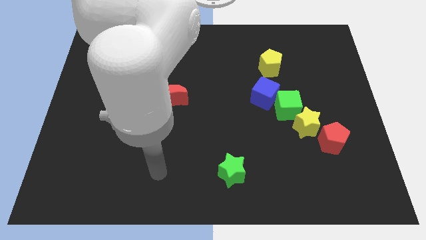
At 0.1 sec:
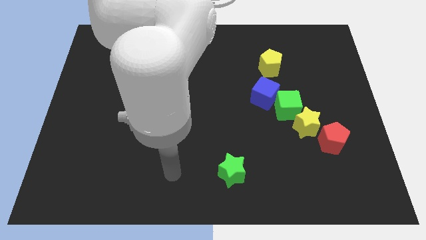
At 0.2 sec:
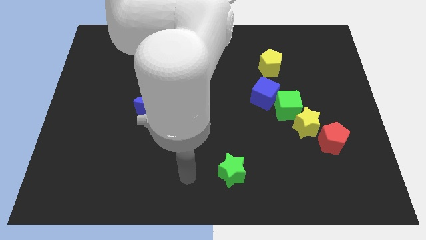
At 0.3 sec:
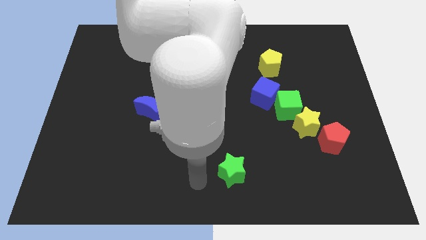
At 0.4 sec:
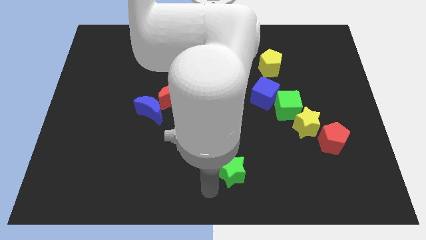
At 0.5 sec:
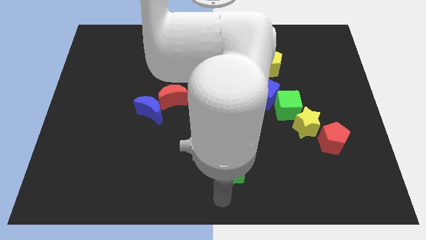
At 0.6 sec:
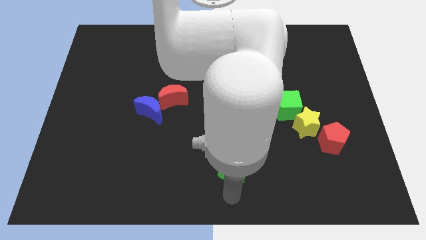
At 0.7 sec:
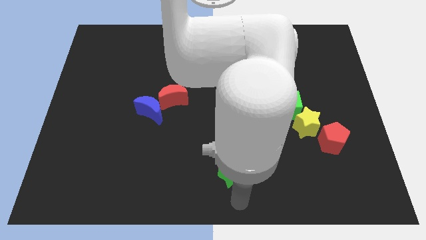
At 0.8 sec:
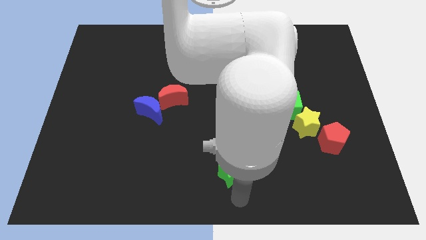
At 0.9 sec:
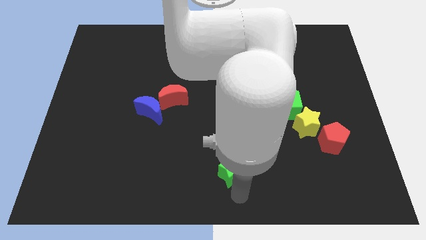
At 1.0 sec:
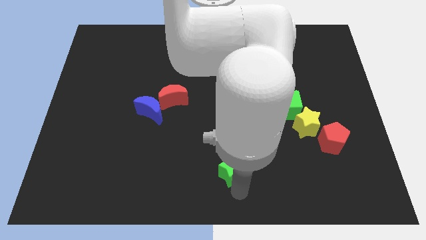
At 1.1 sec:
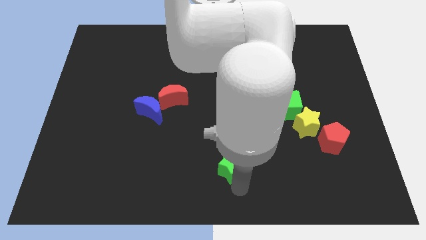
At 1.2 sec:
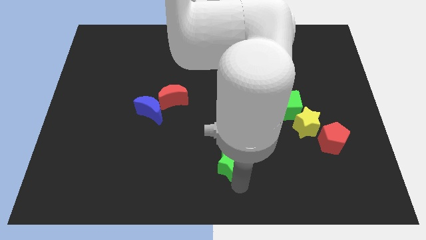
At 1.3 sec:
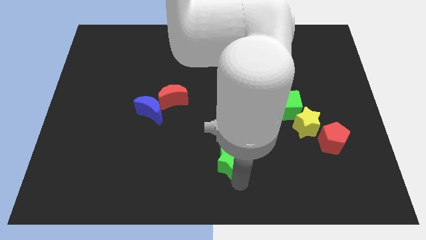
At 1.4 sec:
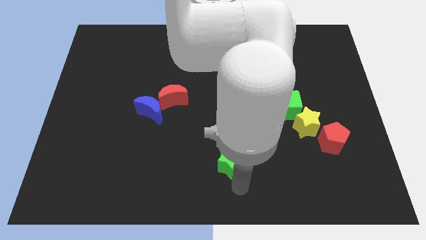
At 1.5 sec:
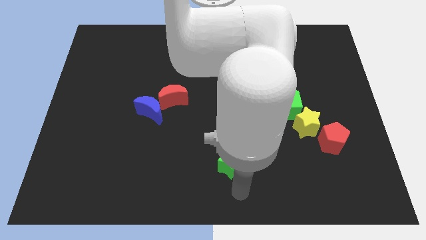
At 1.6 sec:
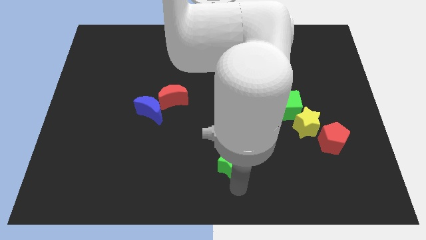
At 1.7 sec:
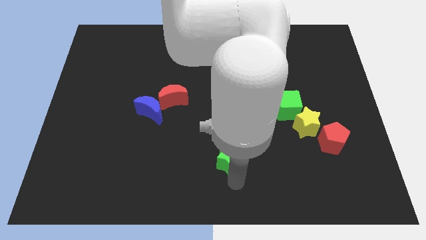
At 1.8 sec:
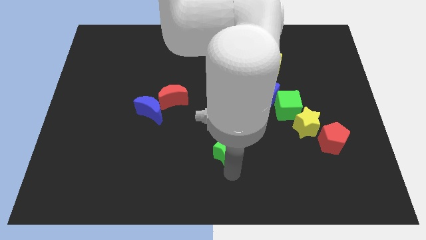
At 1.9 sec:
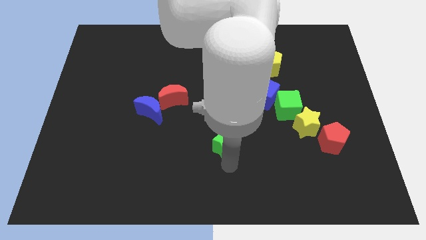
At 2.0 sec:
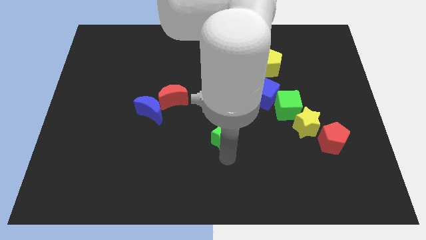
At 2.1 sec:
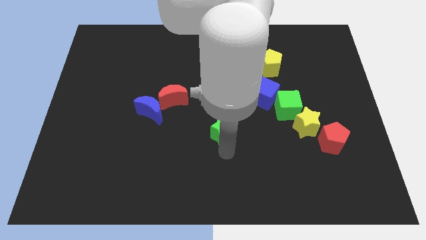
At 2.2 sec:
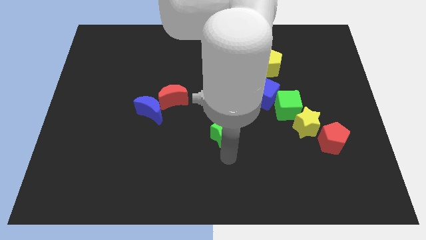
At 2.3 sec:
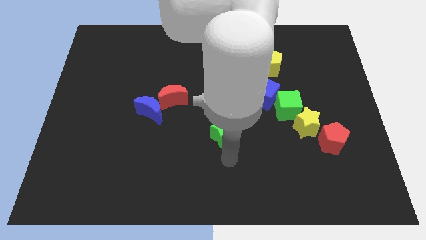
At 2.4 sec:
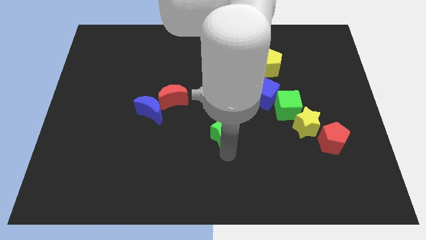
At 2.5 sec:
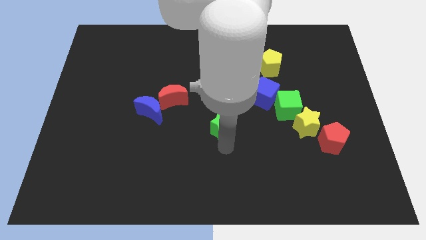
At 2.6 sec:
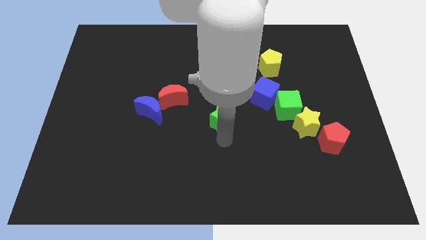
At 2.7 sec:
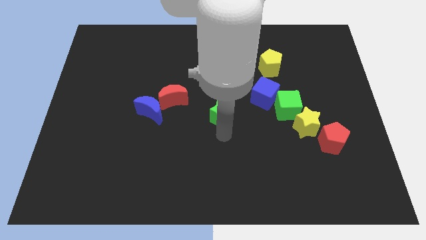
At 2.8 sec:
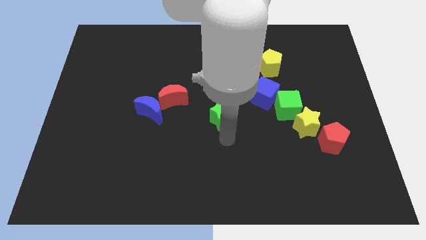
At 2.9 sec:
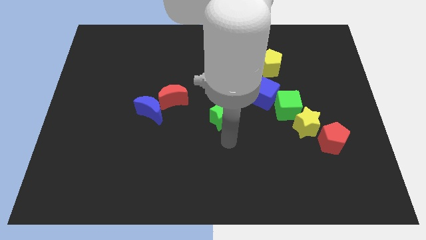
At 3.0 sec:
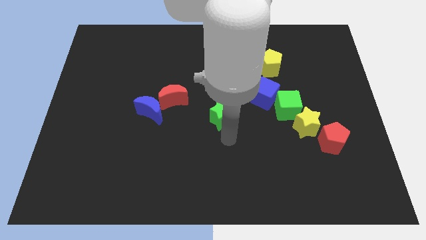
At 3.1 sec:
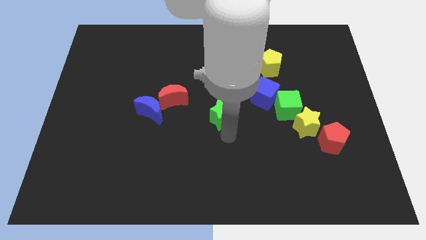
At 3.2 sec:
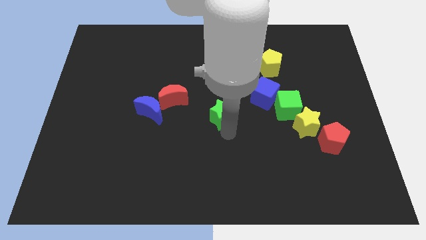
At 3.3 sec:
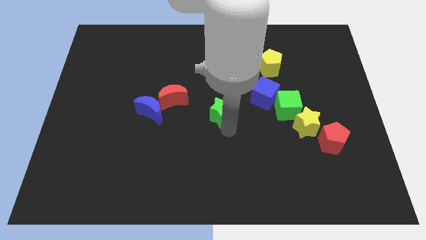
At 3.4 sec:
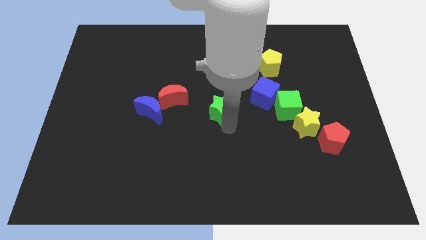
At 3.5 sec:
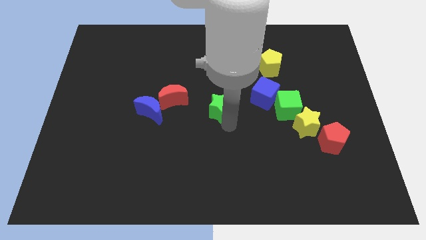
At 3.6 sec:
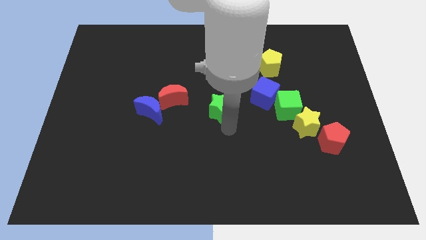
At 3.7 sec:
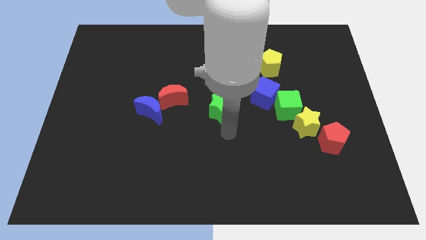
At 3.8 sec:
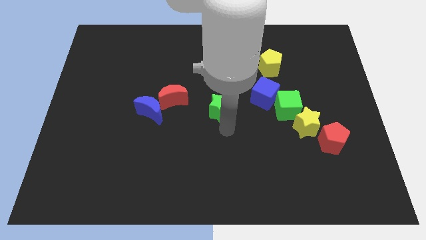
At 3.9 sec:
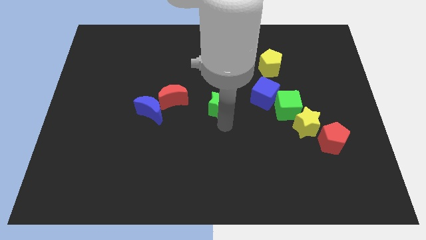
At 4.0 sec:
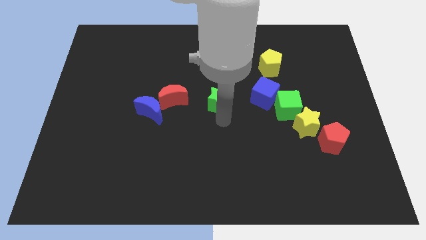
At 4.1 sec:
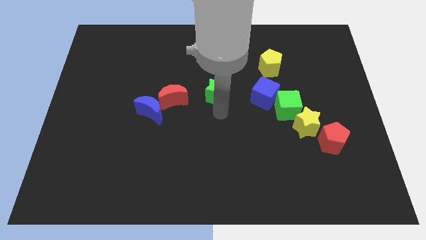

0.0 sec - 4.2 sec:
slide the green star up

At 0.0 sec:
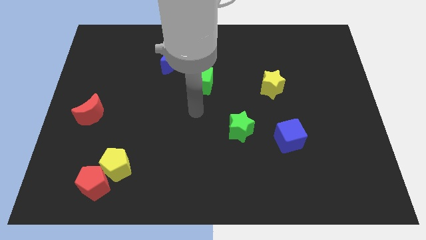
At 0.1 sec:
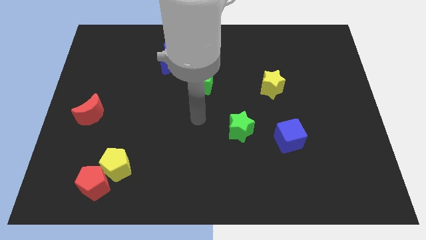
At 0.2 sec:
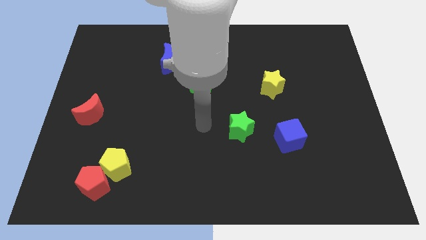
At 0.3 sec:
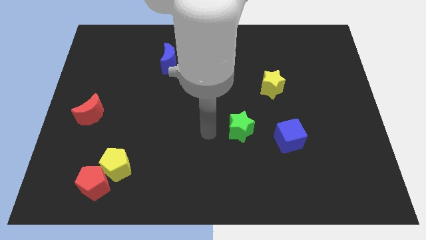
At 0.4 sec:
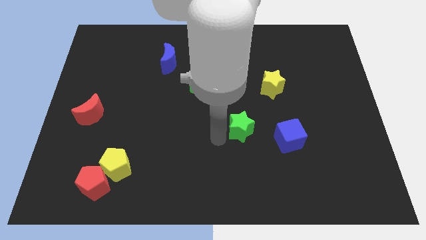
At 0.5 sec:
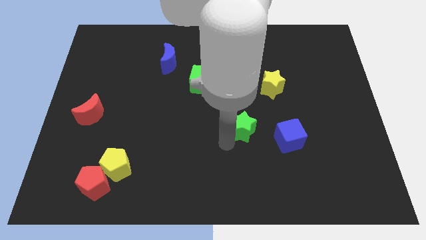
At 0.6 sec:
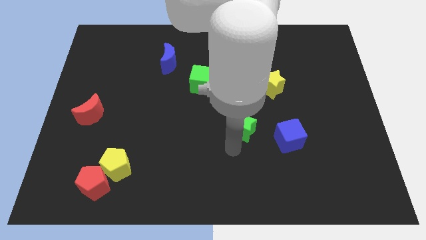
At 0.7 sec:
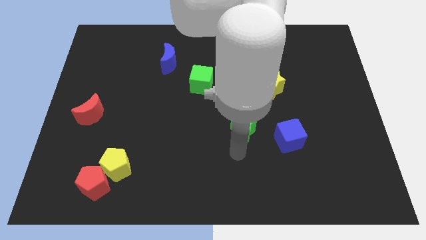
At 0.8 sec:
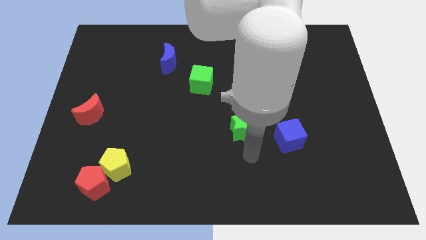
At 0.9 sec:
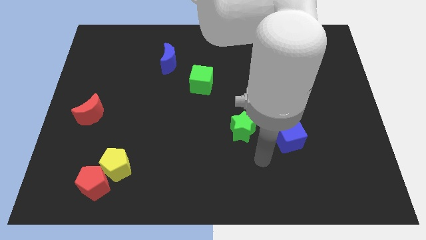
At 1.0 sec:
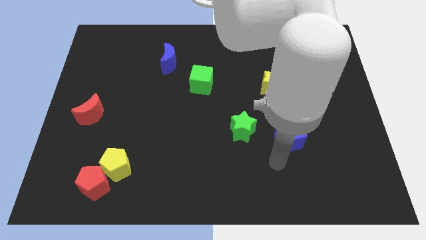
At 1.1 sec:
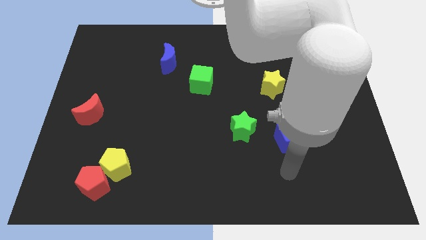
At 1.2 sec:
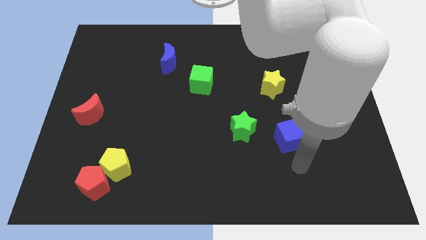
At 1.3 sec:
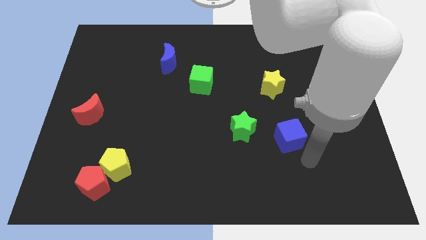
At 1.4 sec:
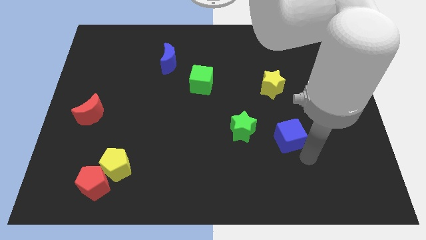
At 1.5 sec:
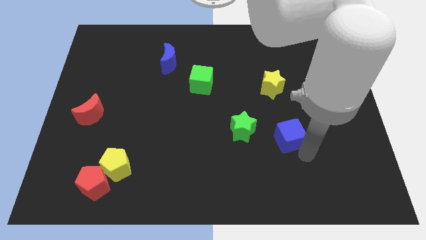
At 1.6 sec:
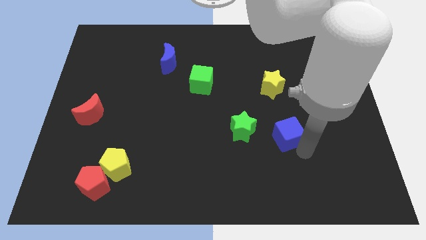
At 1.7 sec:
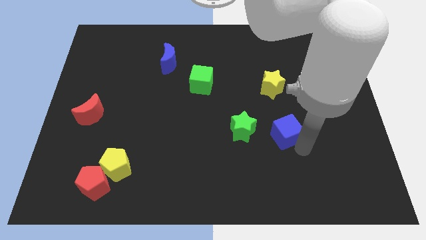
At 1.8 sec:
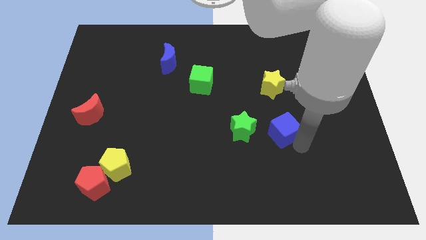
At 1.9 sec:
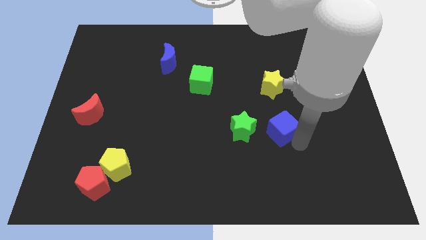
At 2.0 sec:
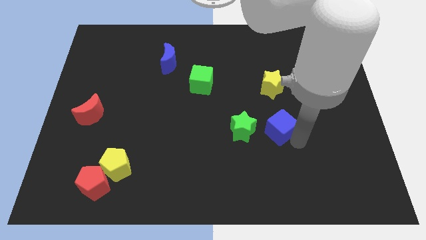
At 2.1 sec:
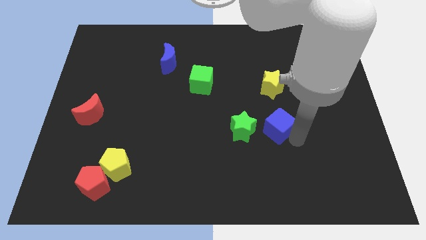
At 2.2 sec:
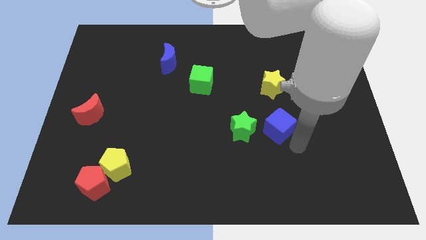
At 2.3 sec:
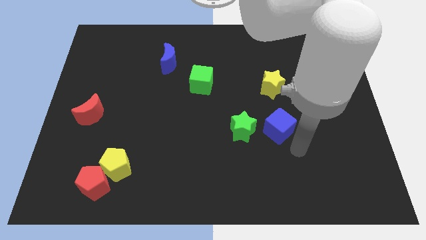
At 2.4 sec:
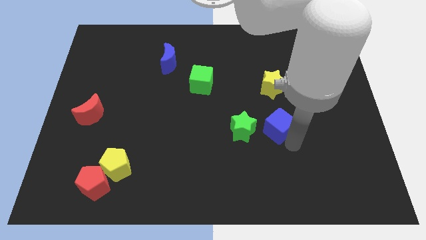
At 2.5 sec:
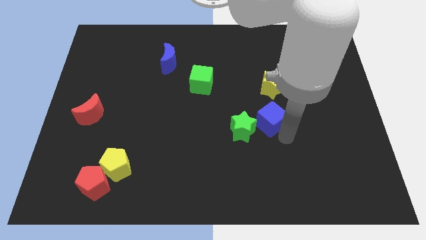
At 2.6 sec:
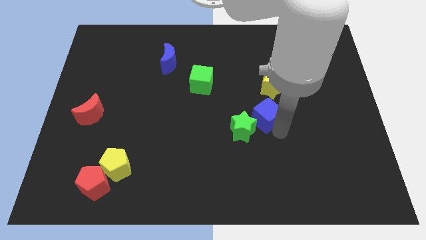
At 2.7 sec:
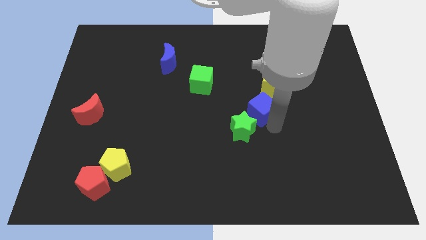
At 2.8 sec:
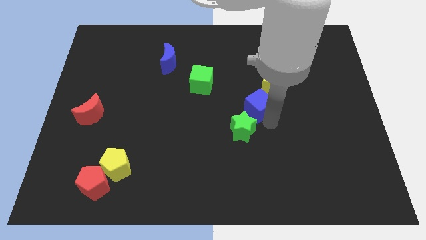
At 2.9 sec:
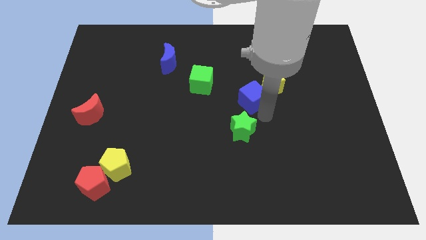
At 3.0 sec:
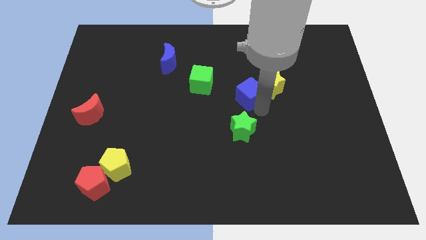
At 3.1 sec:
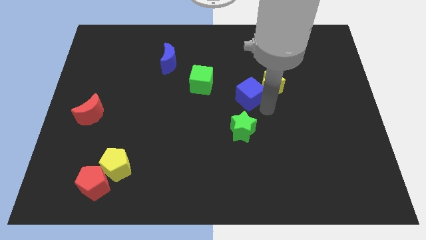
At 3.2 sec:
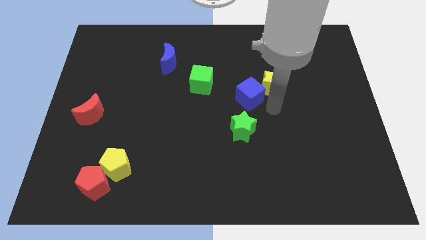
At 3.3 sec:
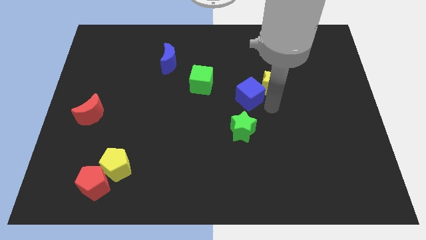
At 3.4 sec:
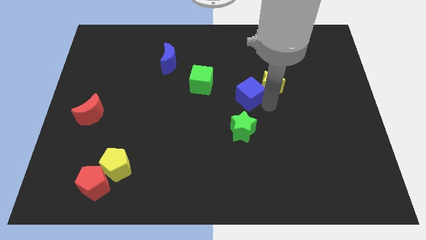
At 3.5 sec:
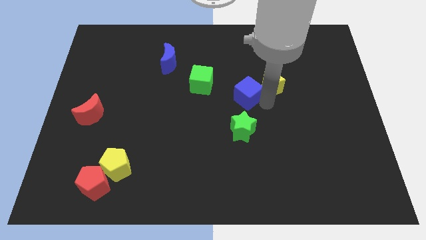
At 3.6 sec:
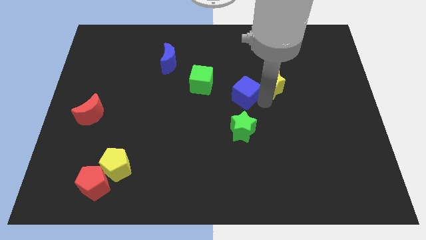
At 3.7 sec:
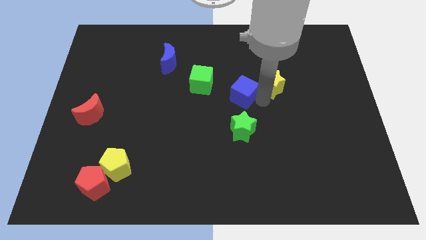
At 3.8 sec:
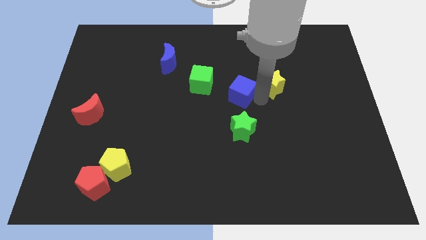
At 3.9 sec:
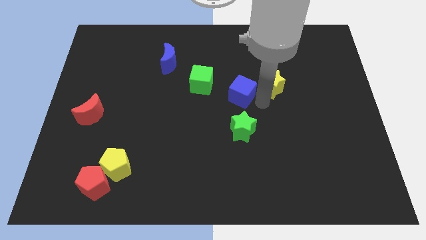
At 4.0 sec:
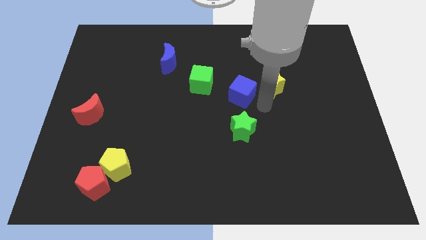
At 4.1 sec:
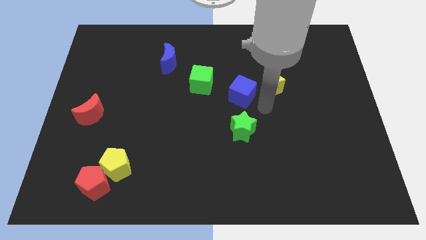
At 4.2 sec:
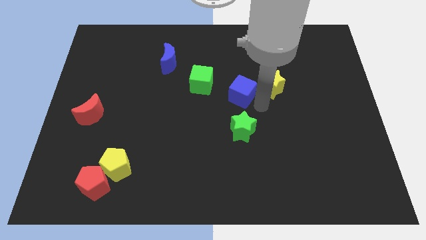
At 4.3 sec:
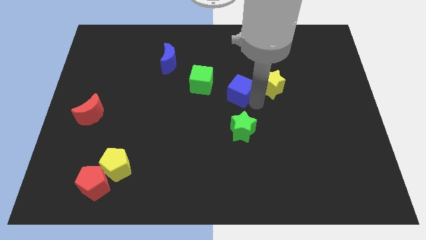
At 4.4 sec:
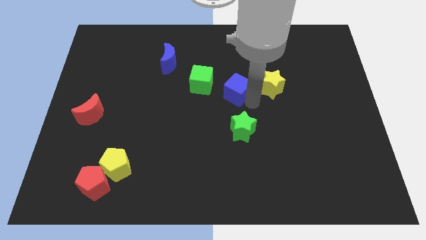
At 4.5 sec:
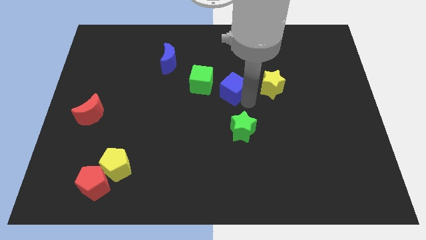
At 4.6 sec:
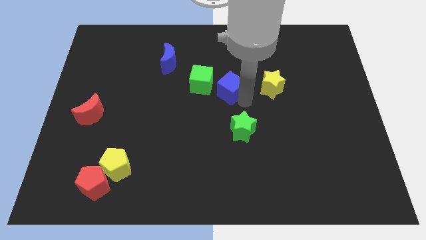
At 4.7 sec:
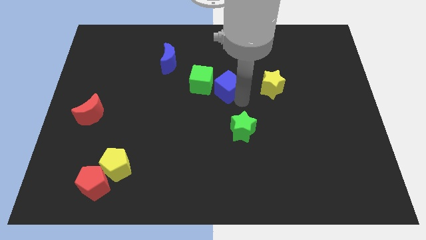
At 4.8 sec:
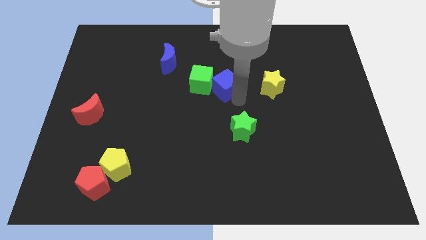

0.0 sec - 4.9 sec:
move the blue cube upwards and then to the left
